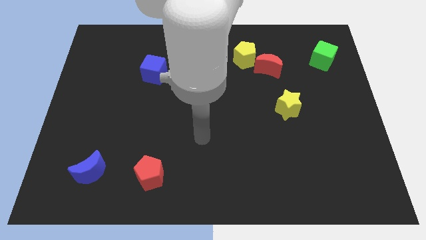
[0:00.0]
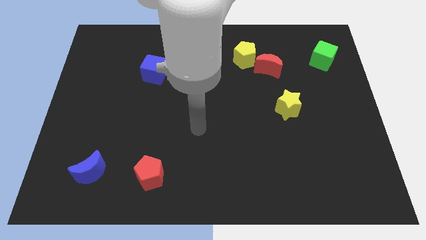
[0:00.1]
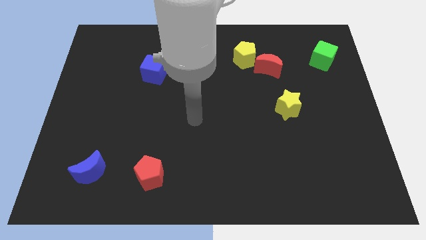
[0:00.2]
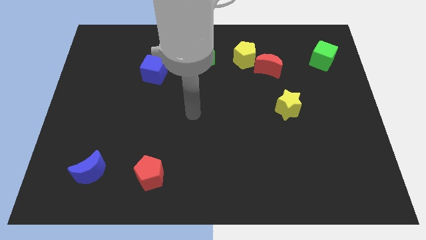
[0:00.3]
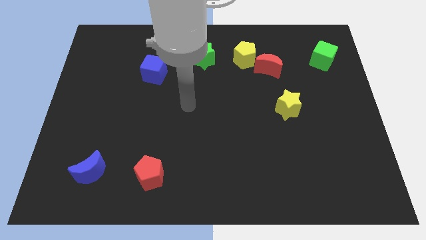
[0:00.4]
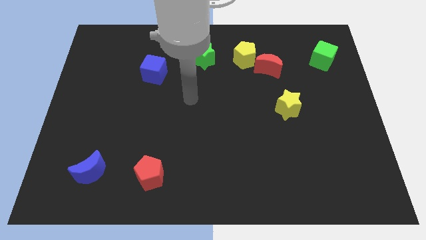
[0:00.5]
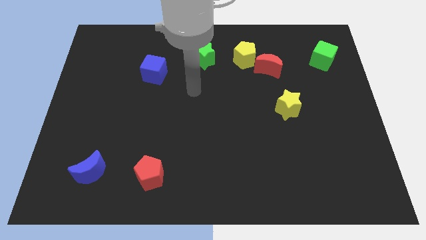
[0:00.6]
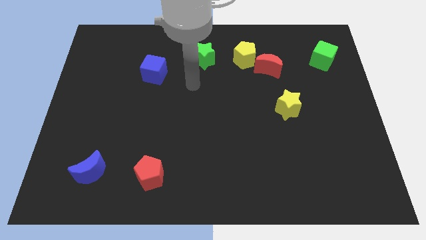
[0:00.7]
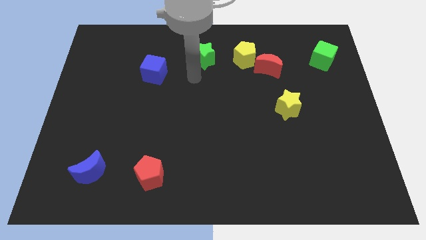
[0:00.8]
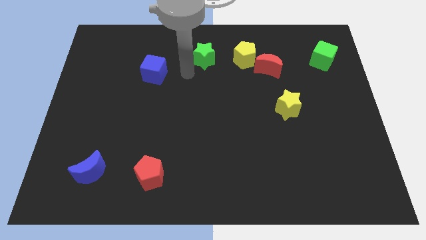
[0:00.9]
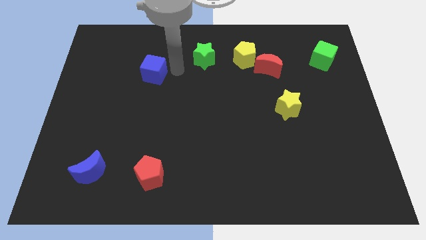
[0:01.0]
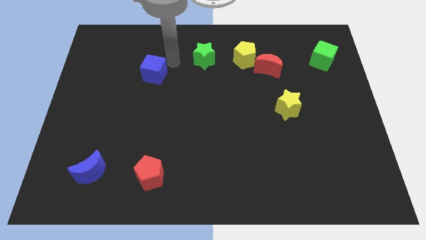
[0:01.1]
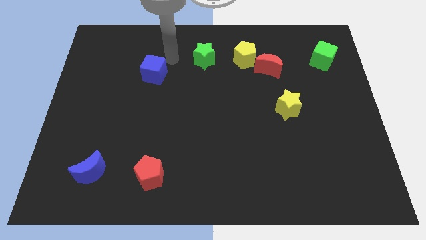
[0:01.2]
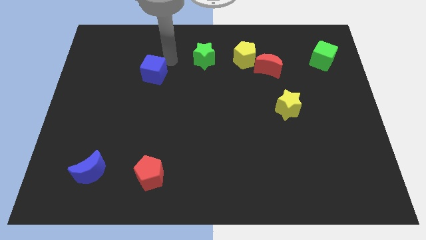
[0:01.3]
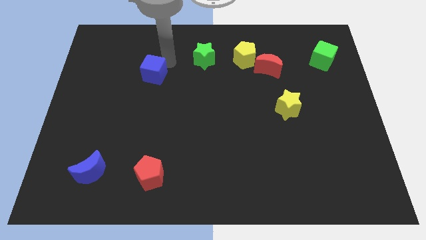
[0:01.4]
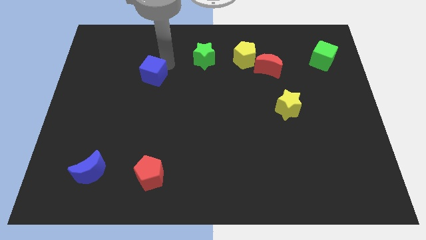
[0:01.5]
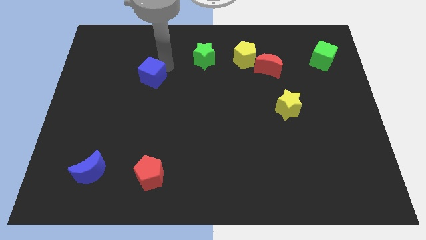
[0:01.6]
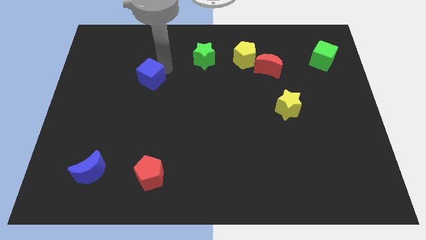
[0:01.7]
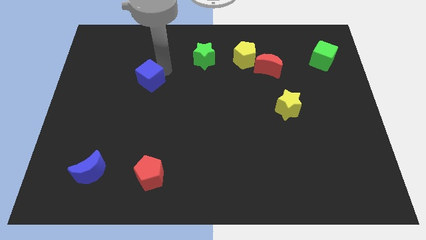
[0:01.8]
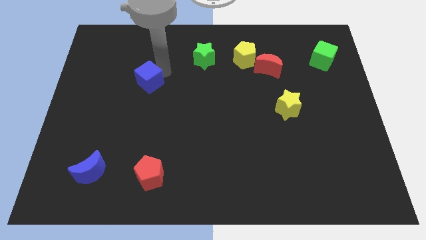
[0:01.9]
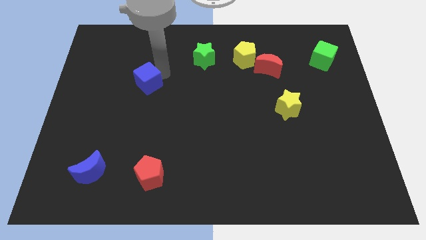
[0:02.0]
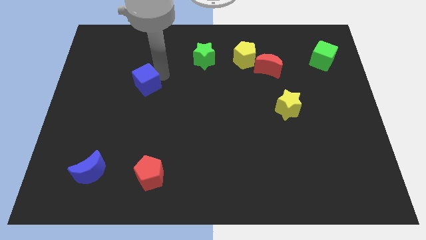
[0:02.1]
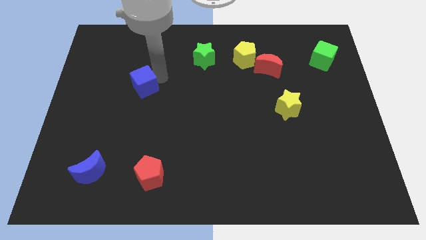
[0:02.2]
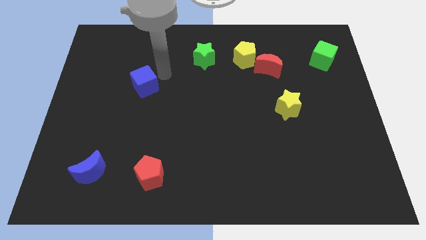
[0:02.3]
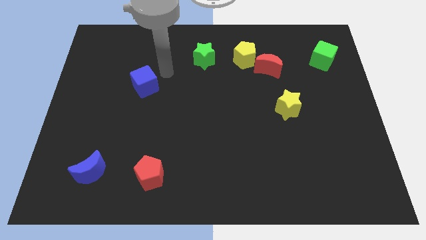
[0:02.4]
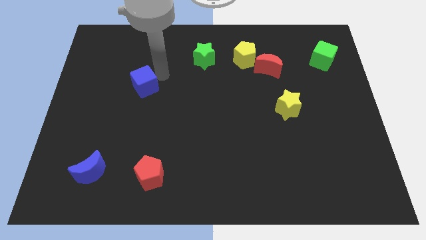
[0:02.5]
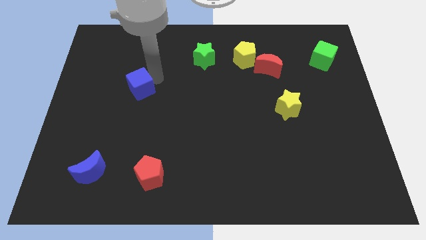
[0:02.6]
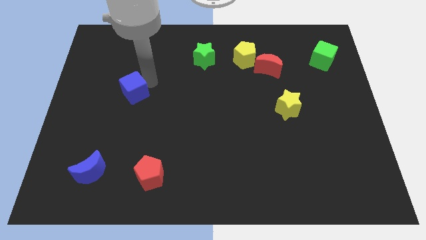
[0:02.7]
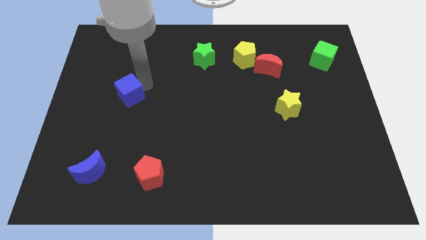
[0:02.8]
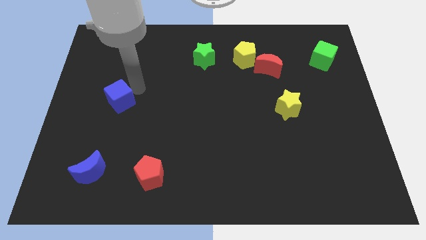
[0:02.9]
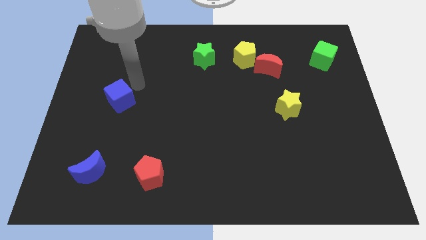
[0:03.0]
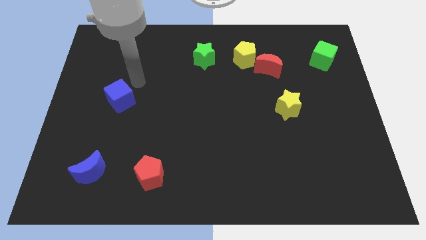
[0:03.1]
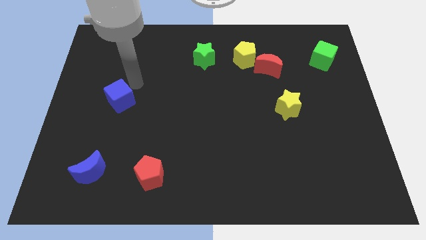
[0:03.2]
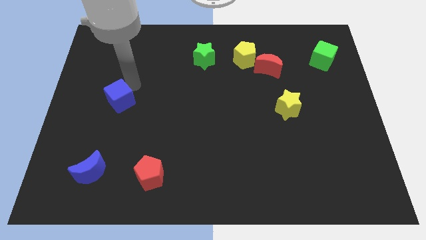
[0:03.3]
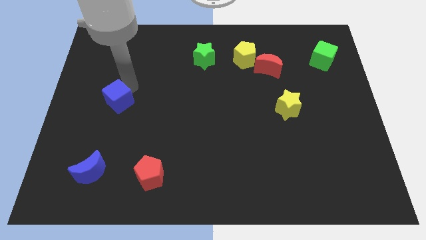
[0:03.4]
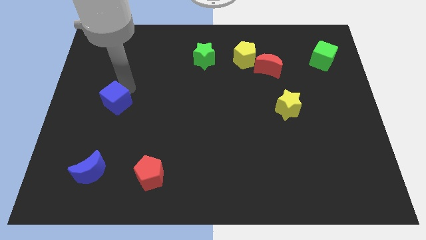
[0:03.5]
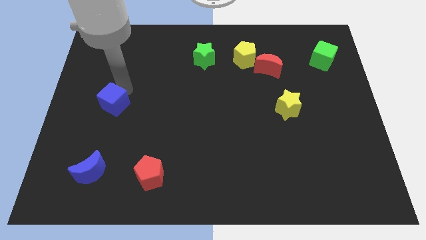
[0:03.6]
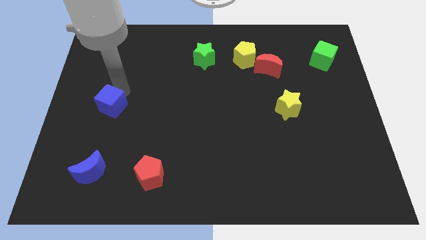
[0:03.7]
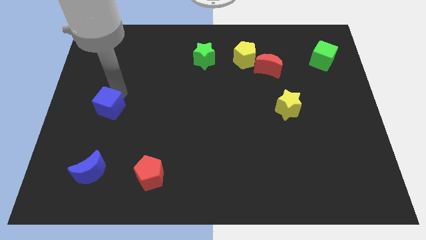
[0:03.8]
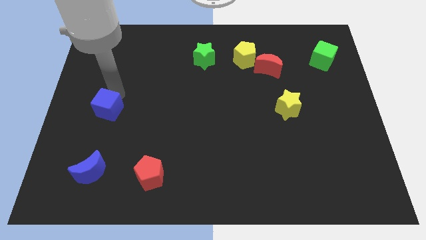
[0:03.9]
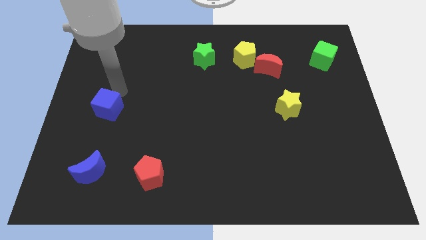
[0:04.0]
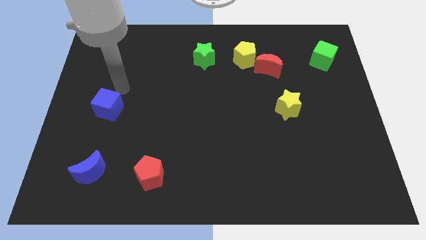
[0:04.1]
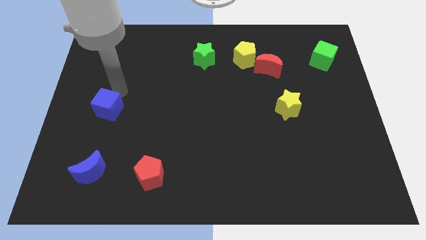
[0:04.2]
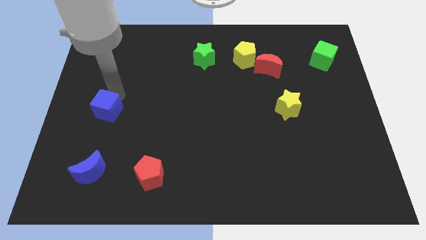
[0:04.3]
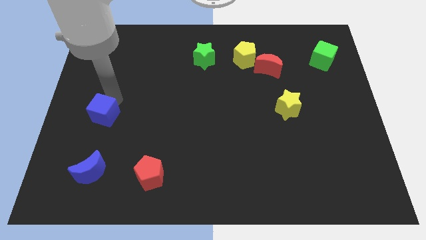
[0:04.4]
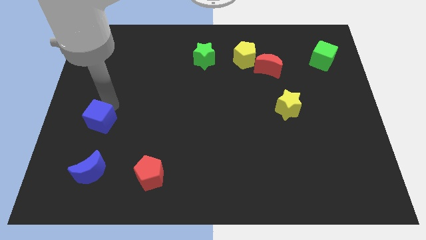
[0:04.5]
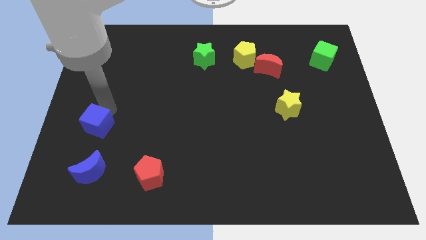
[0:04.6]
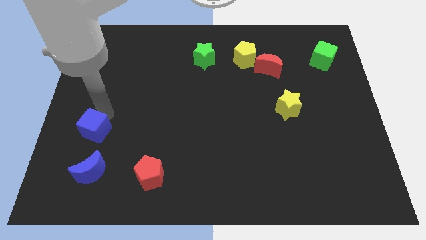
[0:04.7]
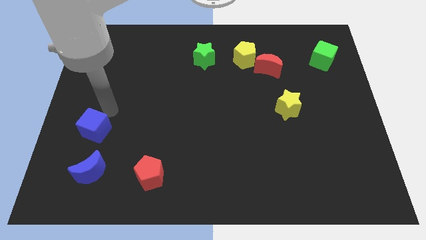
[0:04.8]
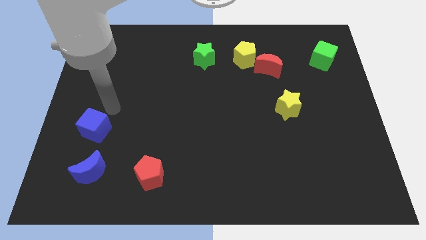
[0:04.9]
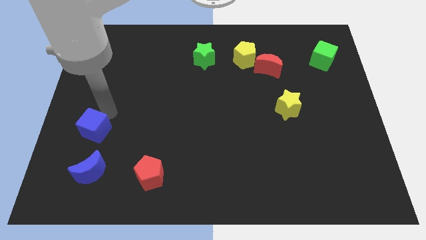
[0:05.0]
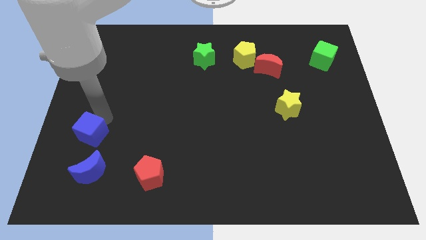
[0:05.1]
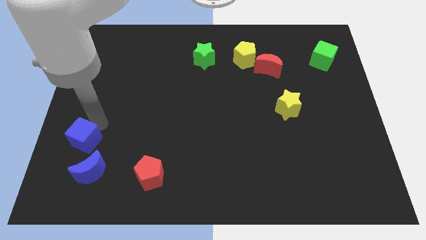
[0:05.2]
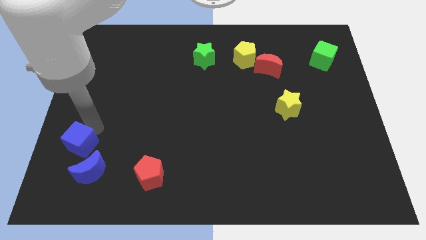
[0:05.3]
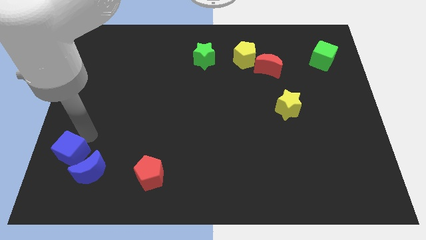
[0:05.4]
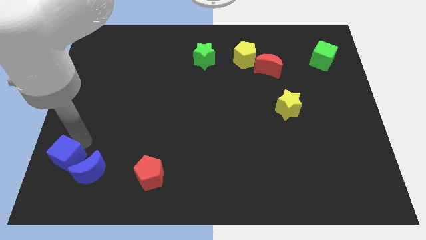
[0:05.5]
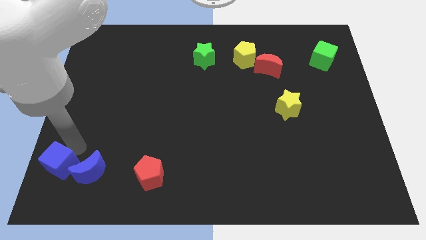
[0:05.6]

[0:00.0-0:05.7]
move the blue cube to the bottom left corner

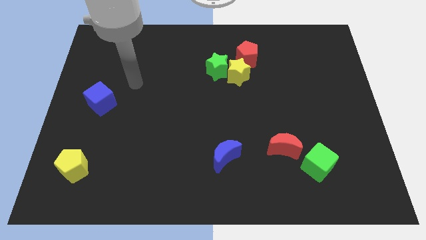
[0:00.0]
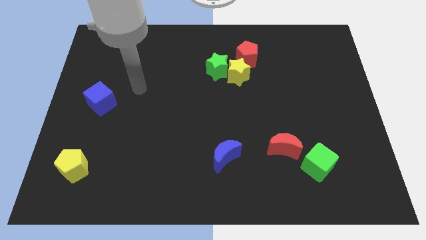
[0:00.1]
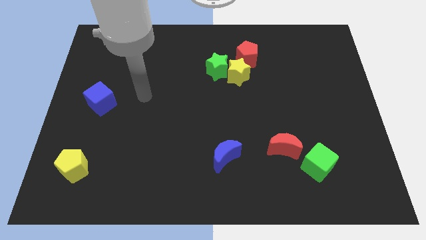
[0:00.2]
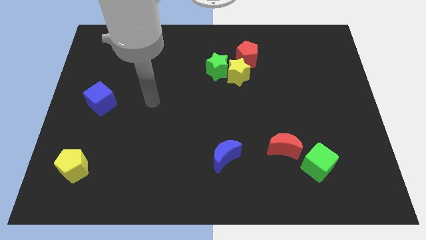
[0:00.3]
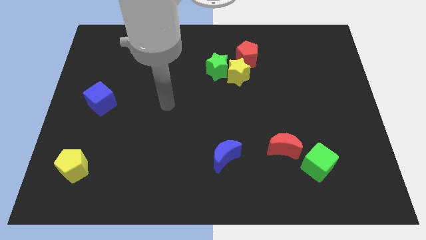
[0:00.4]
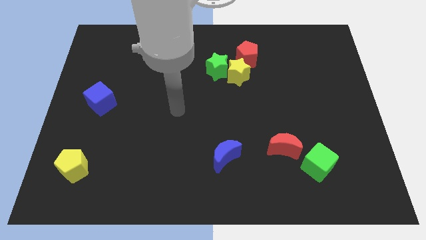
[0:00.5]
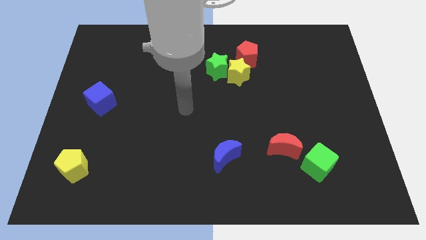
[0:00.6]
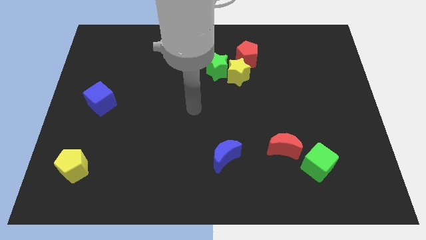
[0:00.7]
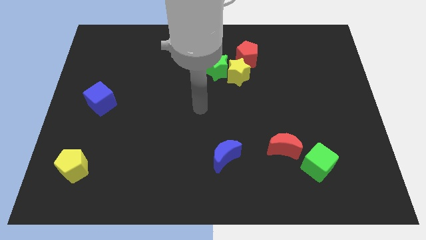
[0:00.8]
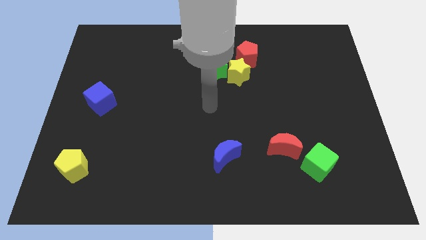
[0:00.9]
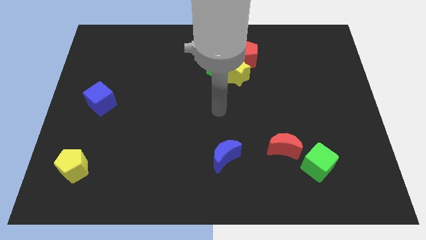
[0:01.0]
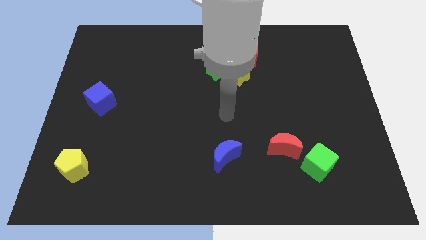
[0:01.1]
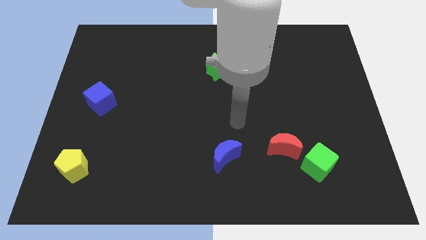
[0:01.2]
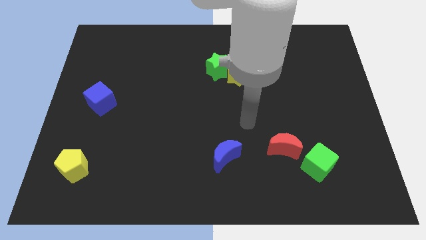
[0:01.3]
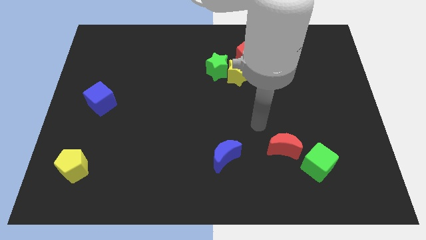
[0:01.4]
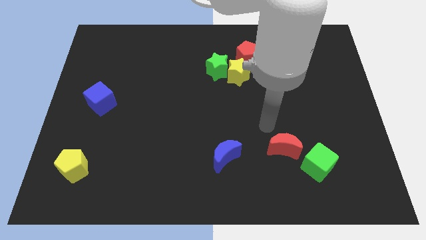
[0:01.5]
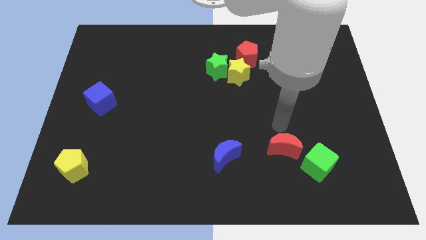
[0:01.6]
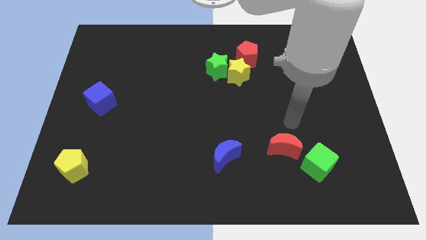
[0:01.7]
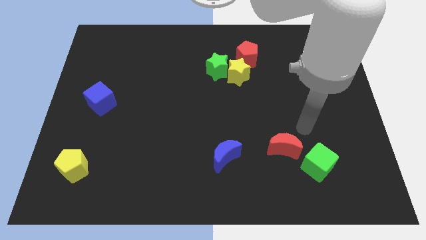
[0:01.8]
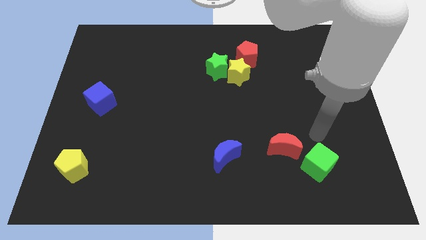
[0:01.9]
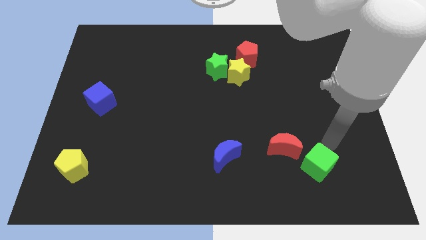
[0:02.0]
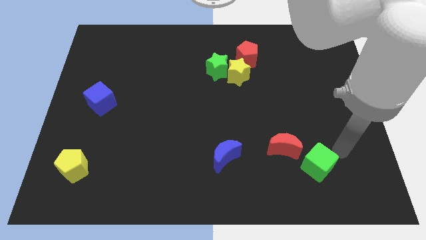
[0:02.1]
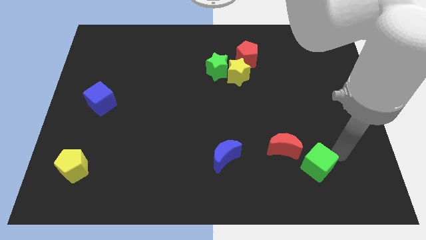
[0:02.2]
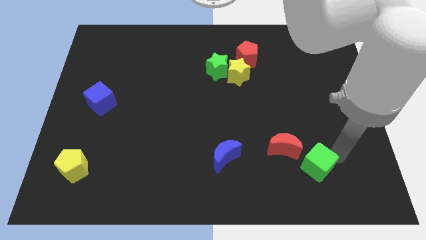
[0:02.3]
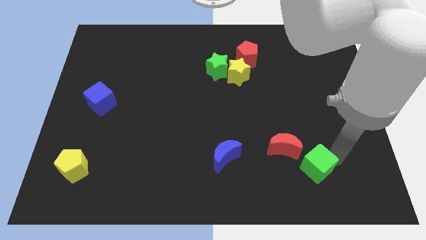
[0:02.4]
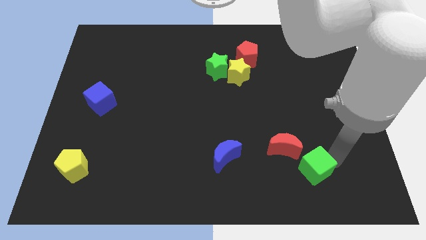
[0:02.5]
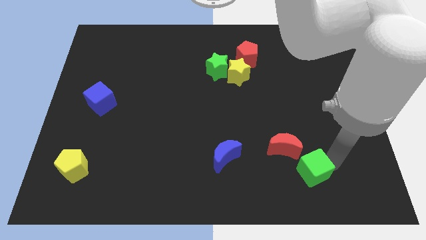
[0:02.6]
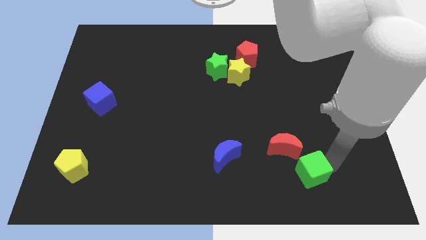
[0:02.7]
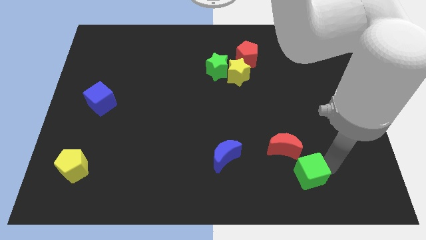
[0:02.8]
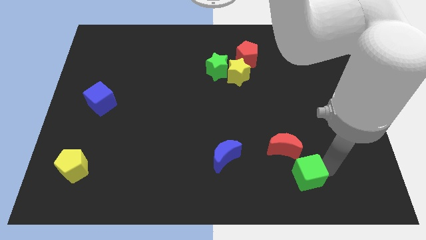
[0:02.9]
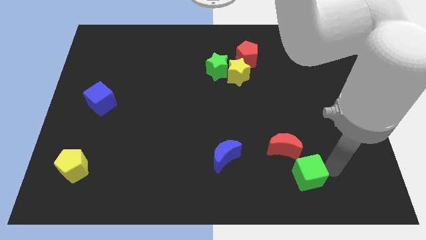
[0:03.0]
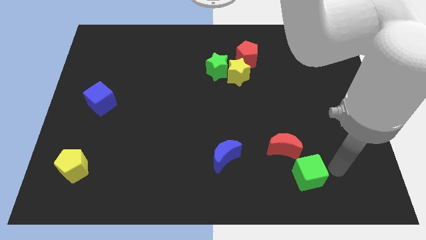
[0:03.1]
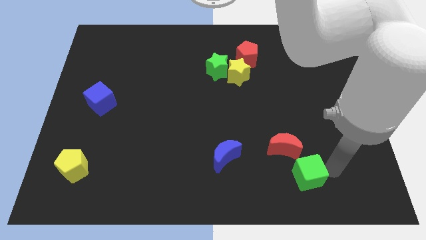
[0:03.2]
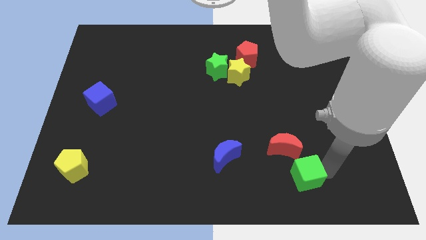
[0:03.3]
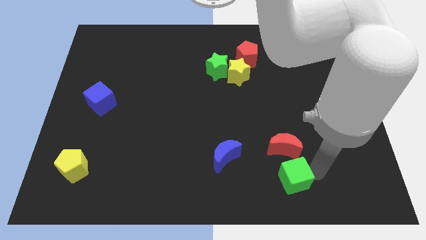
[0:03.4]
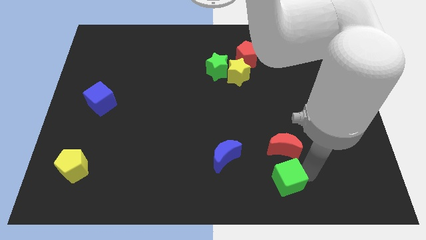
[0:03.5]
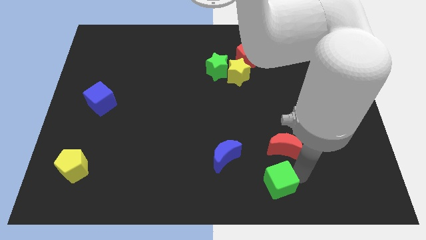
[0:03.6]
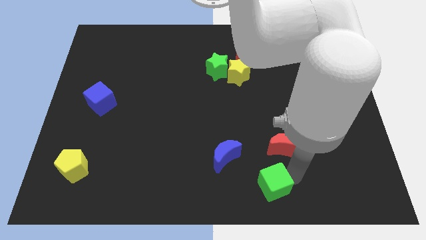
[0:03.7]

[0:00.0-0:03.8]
push the green cube to the bottom
